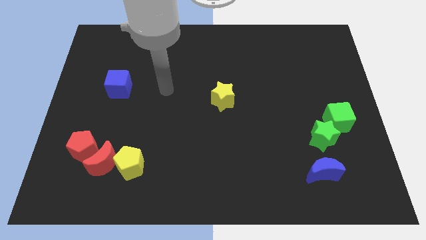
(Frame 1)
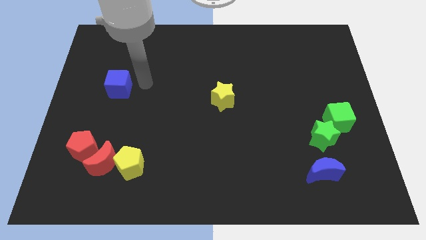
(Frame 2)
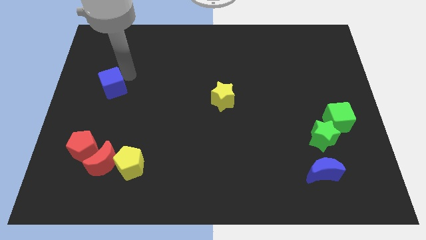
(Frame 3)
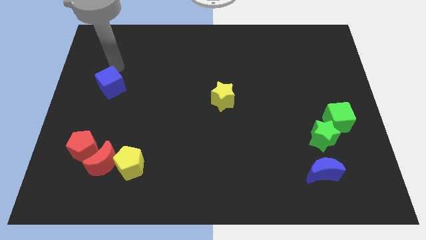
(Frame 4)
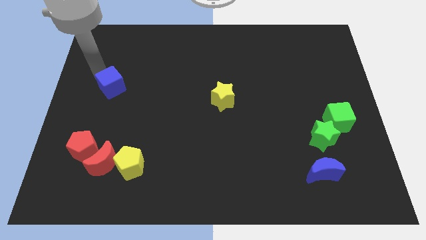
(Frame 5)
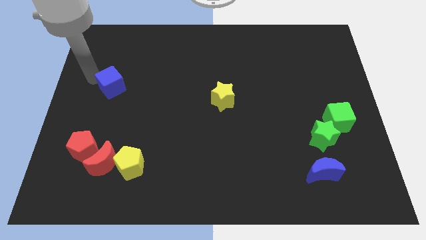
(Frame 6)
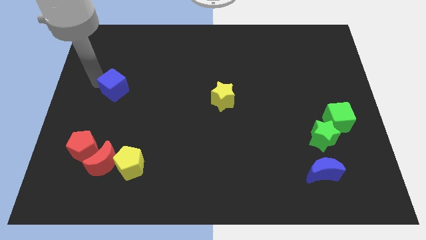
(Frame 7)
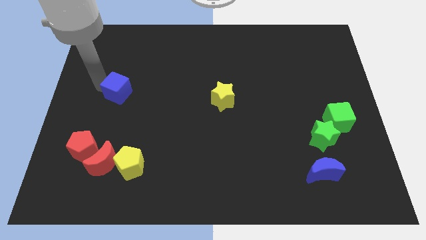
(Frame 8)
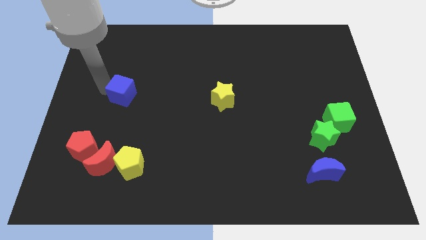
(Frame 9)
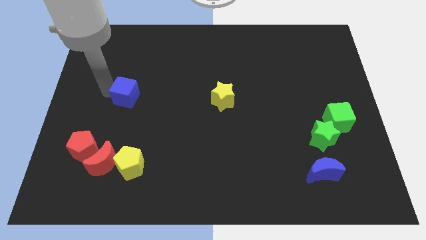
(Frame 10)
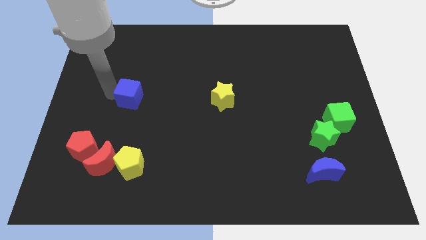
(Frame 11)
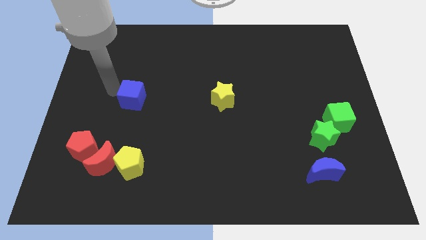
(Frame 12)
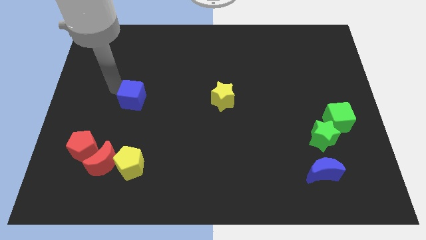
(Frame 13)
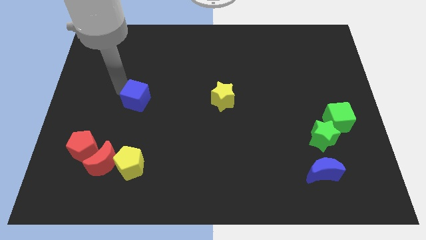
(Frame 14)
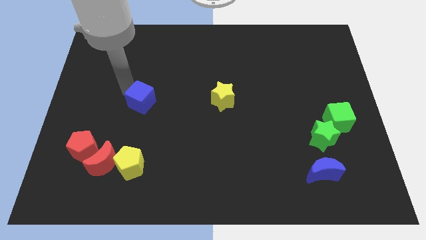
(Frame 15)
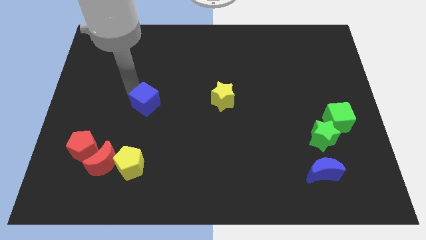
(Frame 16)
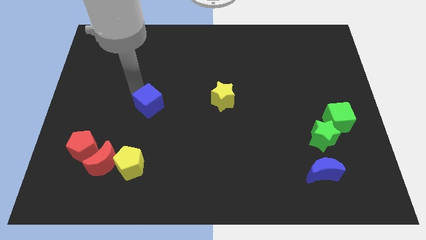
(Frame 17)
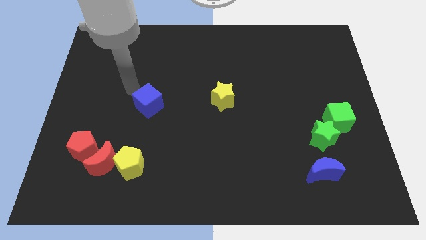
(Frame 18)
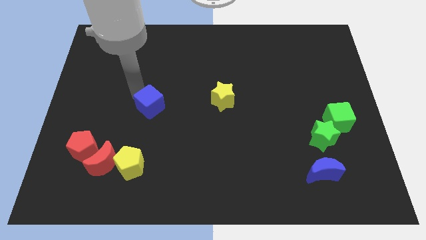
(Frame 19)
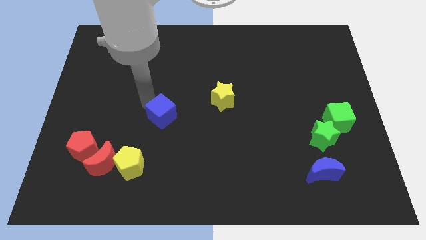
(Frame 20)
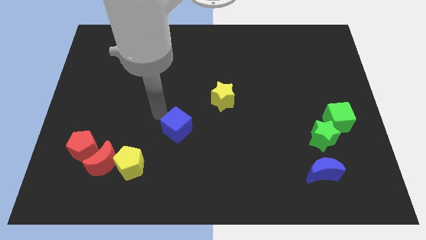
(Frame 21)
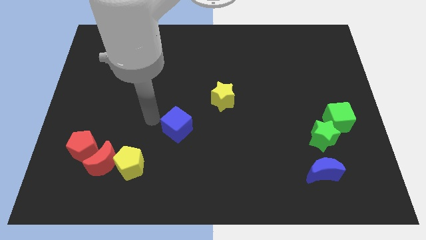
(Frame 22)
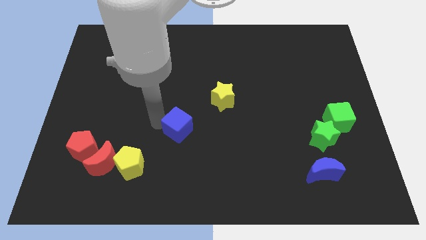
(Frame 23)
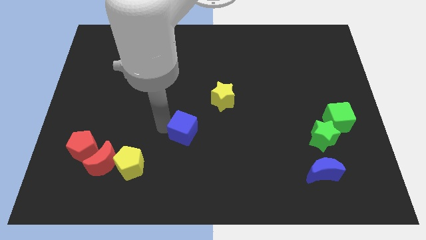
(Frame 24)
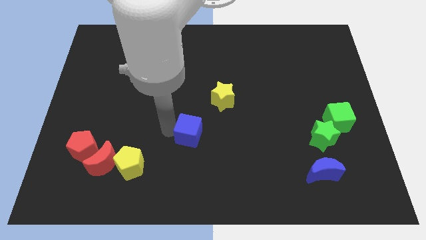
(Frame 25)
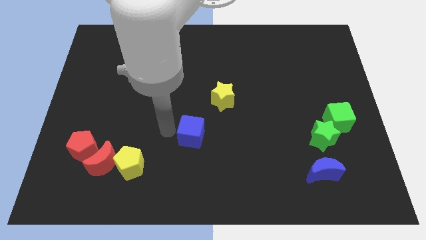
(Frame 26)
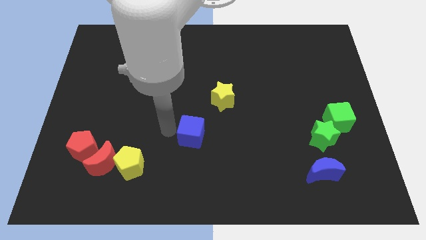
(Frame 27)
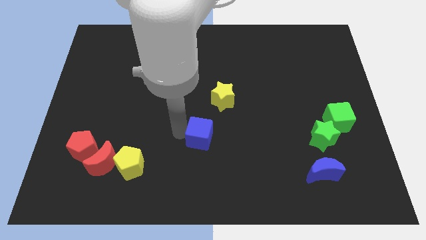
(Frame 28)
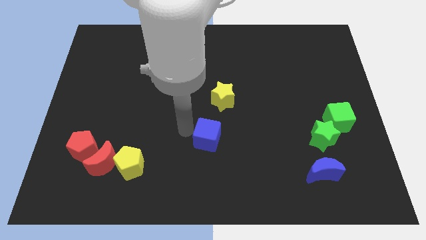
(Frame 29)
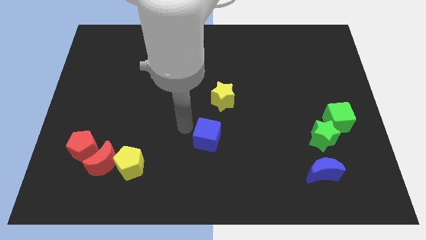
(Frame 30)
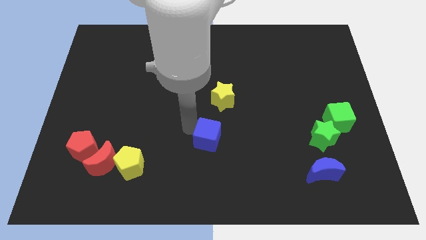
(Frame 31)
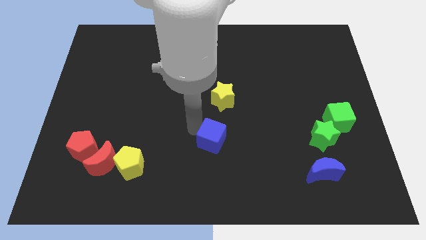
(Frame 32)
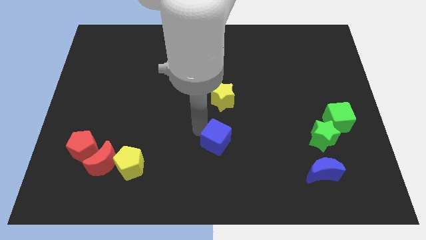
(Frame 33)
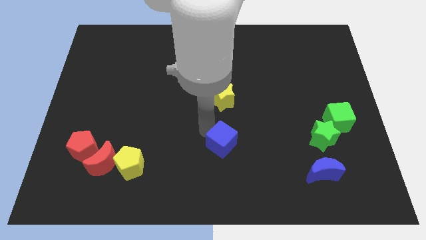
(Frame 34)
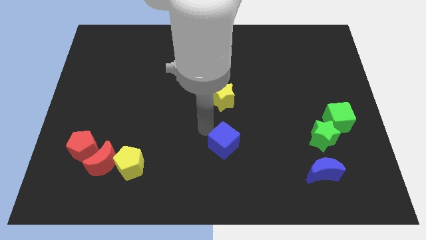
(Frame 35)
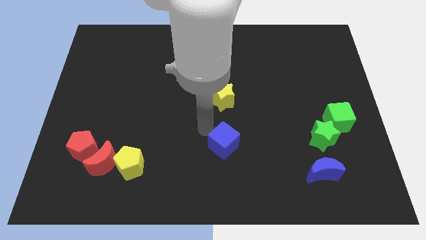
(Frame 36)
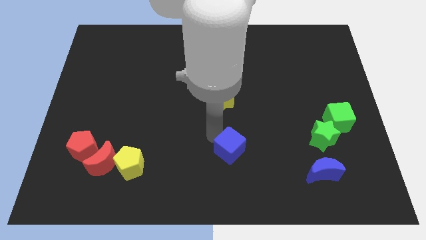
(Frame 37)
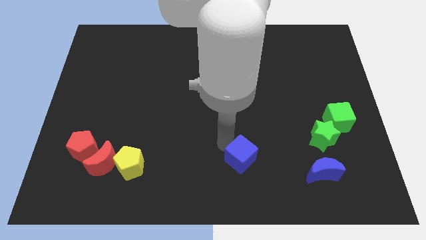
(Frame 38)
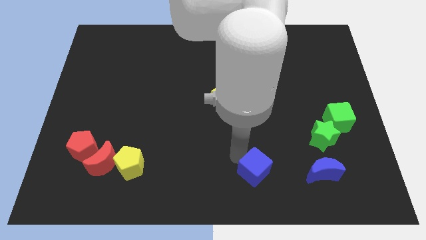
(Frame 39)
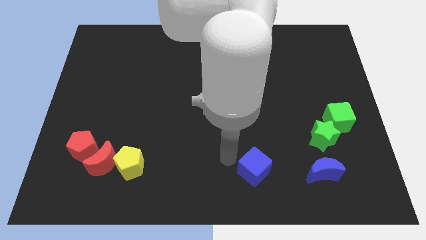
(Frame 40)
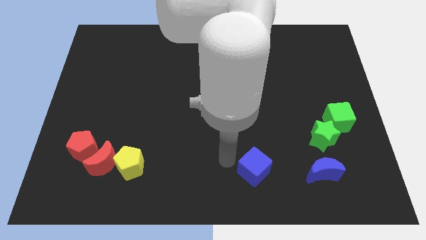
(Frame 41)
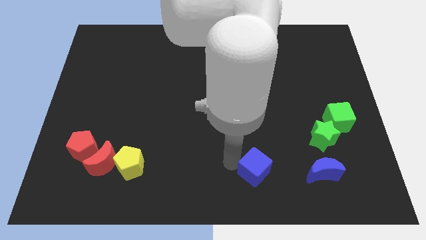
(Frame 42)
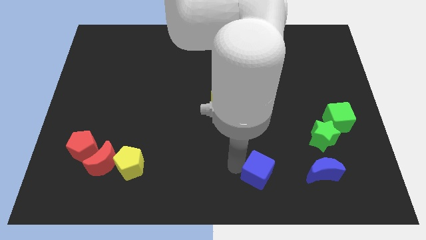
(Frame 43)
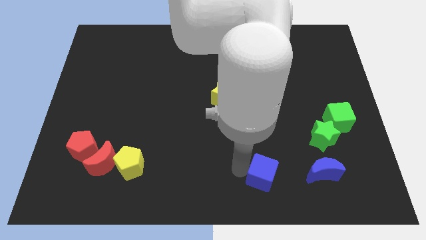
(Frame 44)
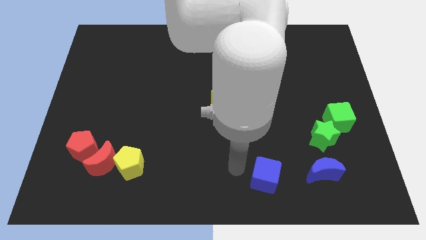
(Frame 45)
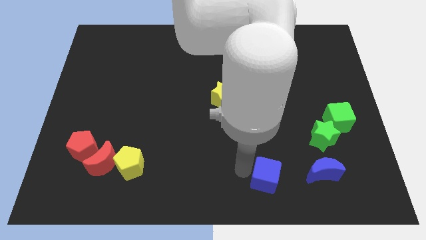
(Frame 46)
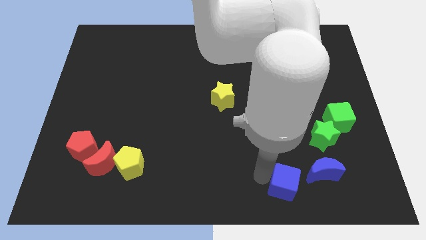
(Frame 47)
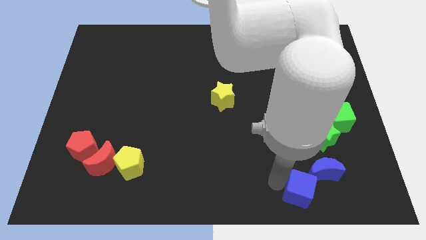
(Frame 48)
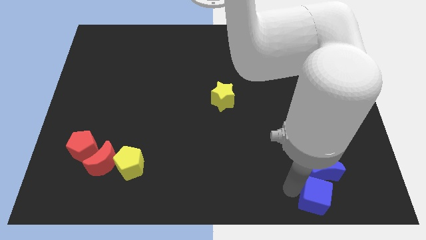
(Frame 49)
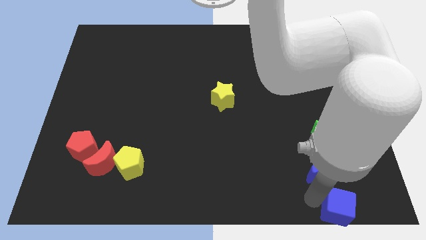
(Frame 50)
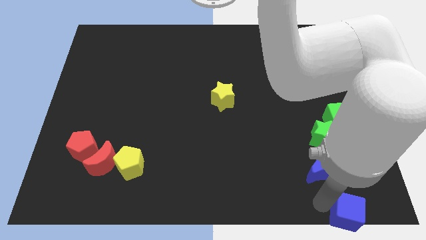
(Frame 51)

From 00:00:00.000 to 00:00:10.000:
slide the blue cube to the bottom right of the board
